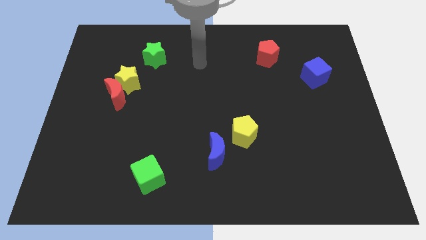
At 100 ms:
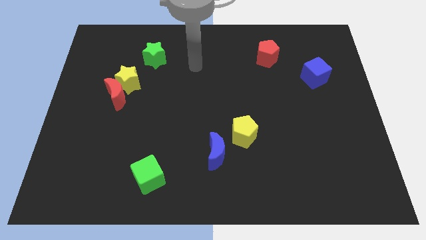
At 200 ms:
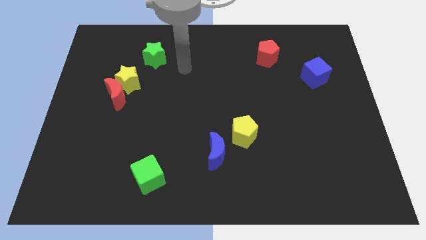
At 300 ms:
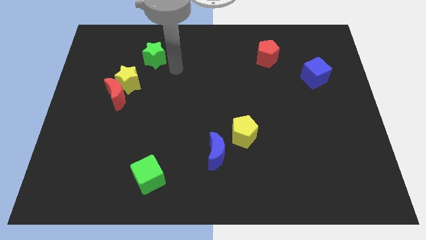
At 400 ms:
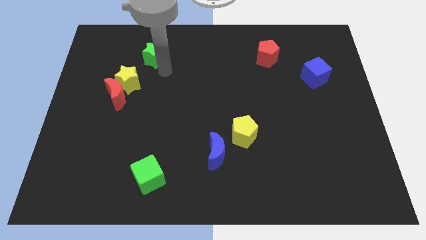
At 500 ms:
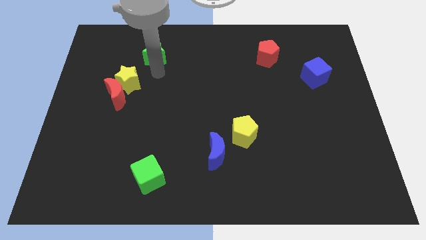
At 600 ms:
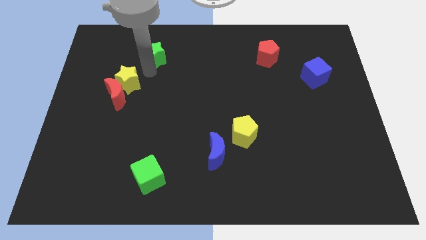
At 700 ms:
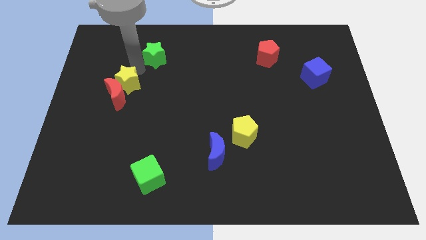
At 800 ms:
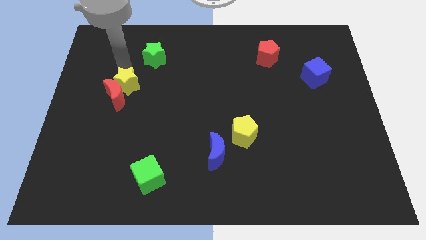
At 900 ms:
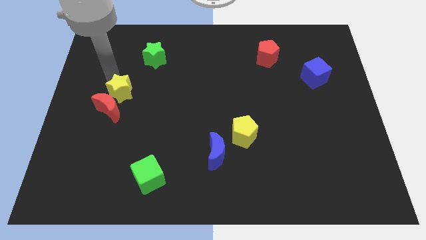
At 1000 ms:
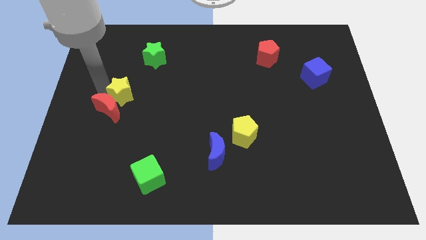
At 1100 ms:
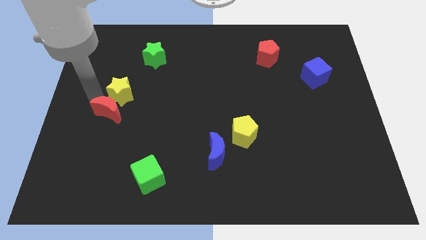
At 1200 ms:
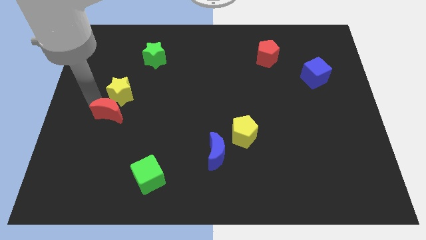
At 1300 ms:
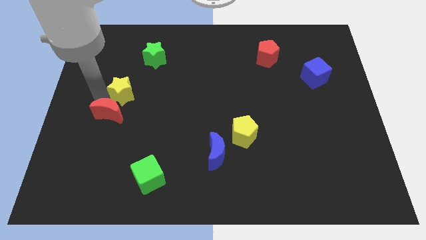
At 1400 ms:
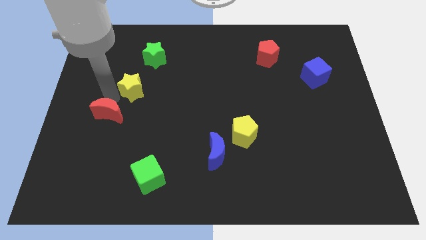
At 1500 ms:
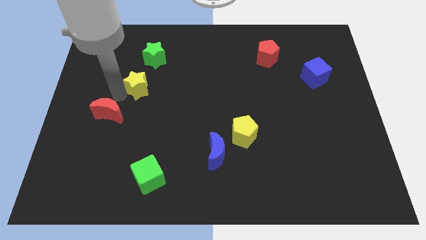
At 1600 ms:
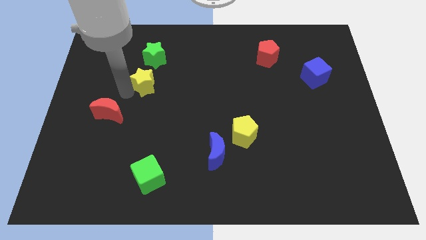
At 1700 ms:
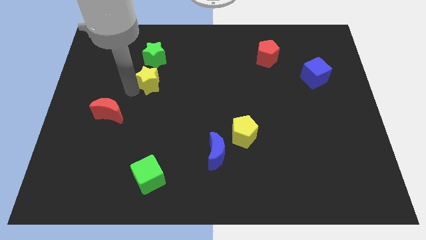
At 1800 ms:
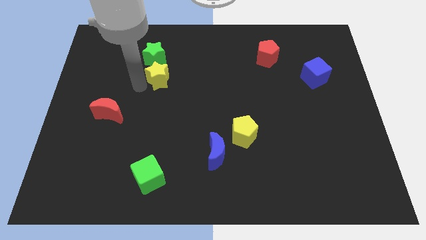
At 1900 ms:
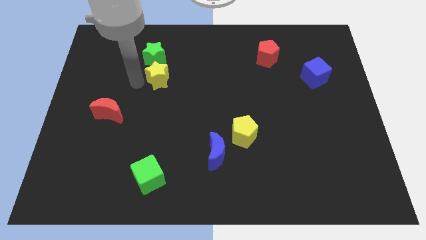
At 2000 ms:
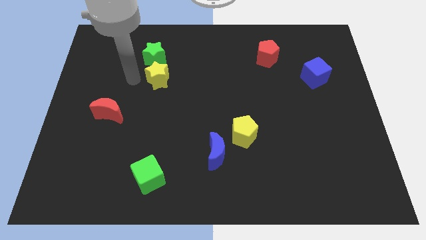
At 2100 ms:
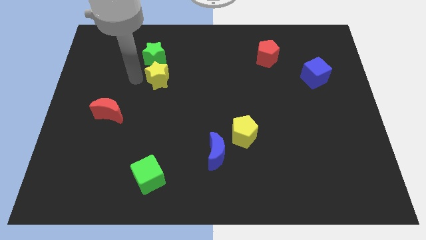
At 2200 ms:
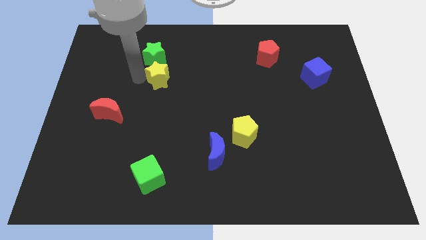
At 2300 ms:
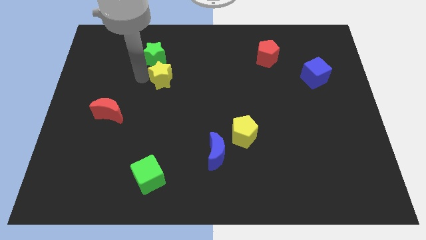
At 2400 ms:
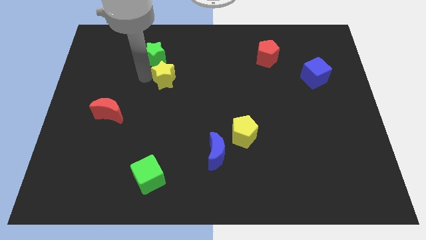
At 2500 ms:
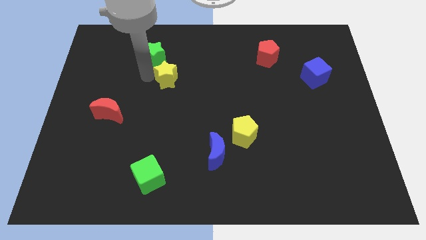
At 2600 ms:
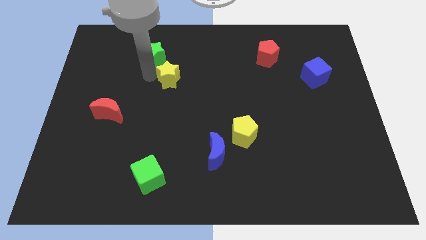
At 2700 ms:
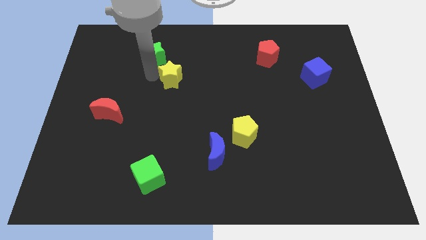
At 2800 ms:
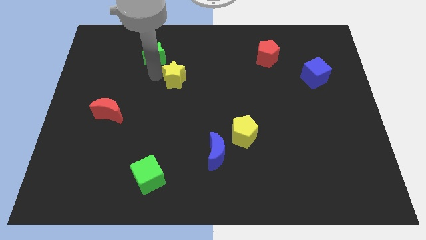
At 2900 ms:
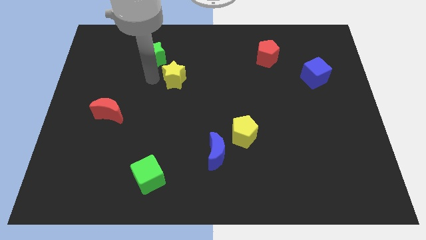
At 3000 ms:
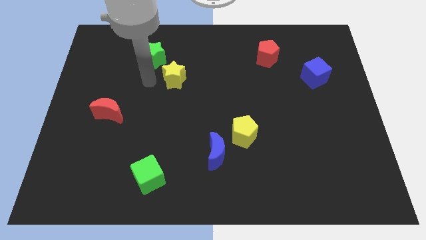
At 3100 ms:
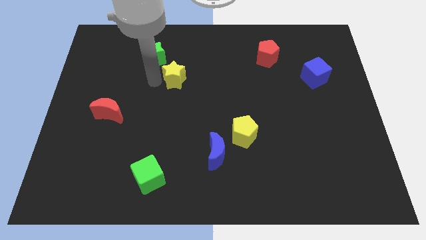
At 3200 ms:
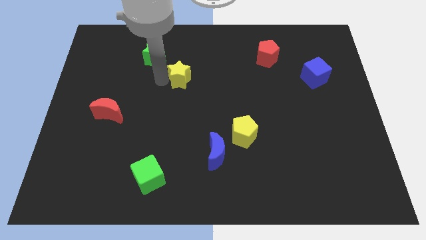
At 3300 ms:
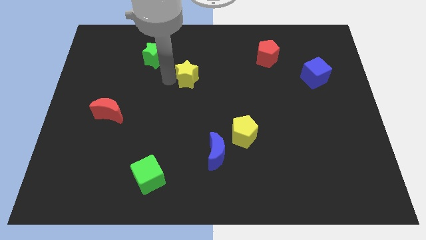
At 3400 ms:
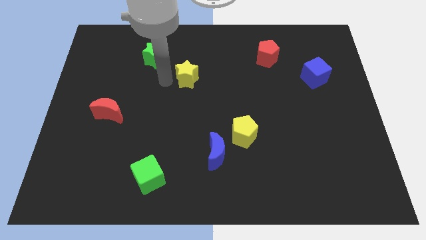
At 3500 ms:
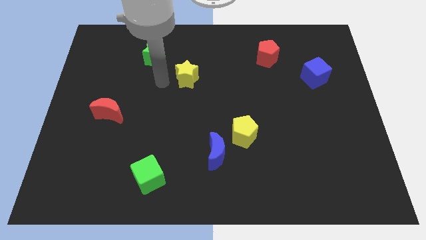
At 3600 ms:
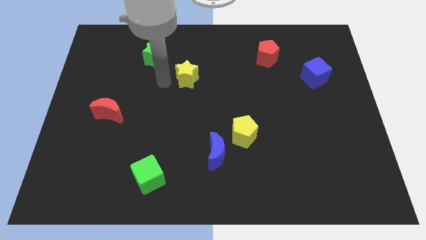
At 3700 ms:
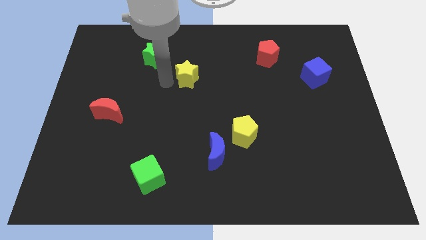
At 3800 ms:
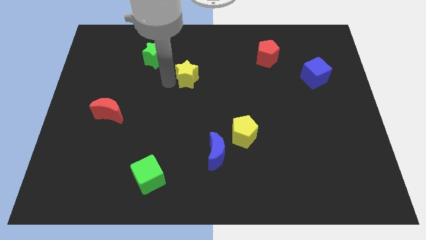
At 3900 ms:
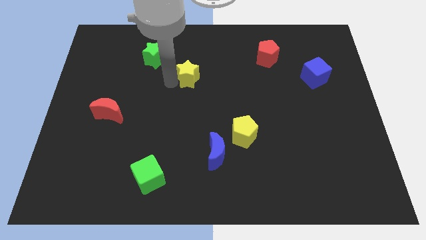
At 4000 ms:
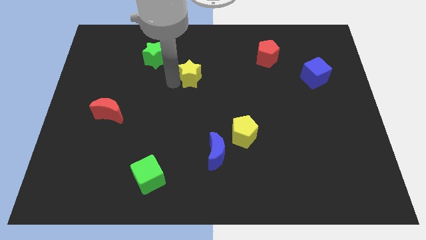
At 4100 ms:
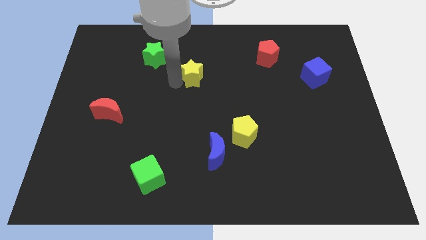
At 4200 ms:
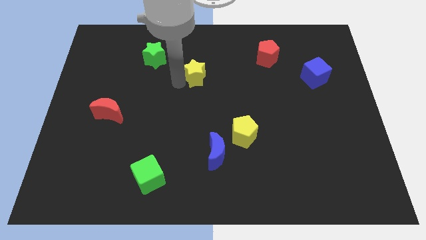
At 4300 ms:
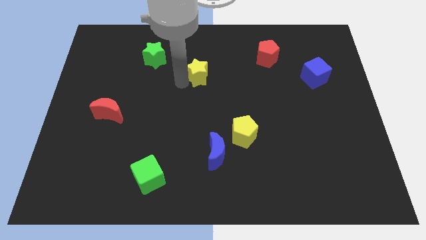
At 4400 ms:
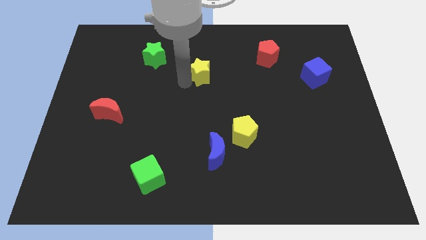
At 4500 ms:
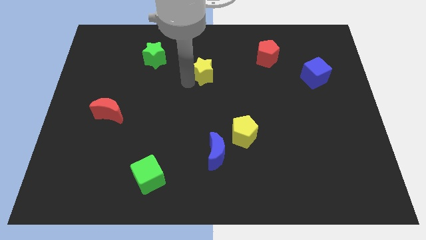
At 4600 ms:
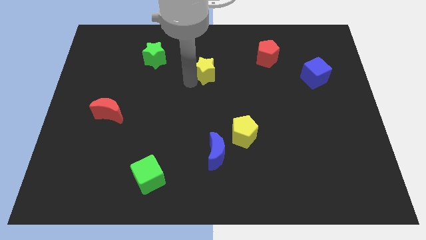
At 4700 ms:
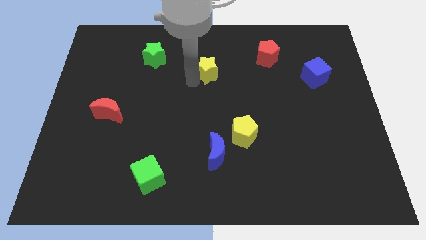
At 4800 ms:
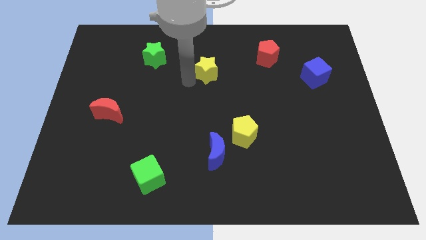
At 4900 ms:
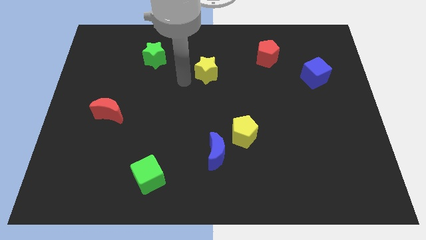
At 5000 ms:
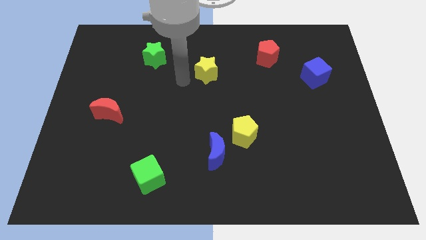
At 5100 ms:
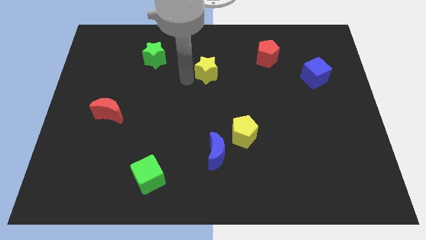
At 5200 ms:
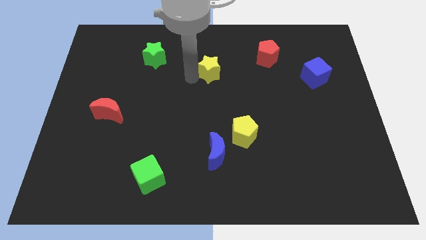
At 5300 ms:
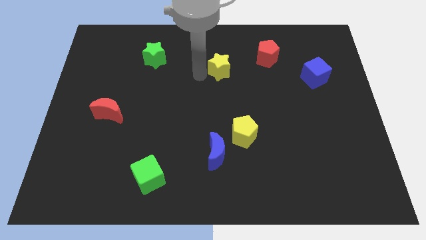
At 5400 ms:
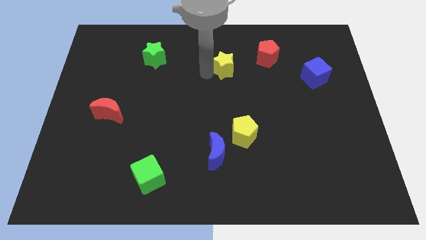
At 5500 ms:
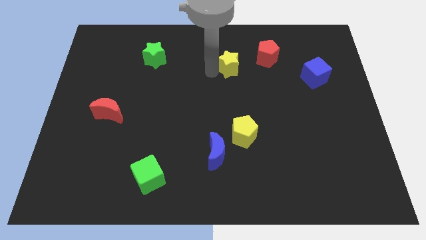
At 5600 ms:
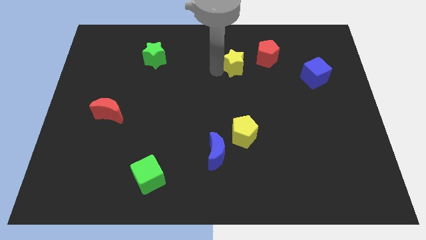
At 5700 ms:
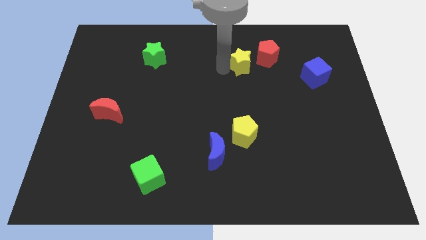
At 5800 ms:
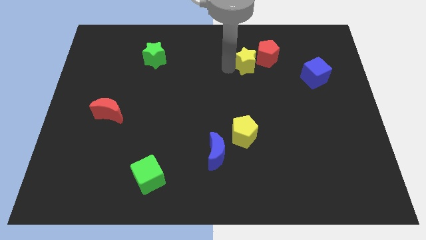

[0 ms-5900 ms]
slide the yellow star close to the red pentagon

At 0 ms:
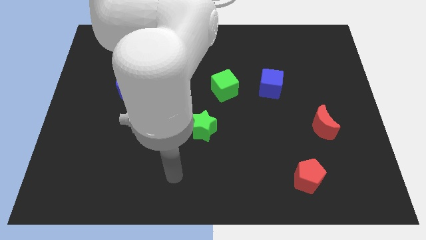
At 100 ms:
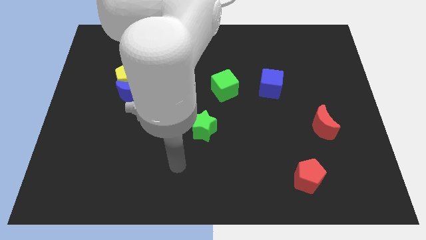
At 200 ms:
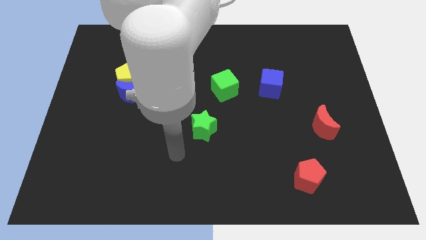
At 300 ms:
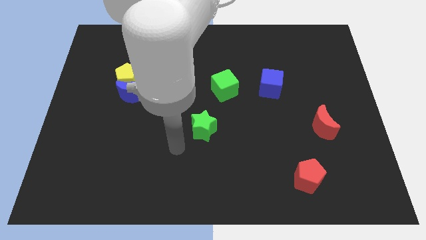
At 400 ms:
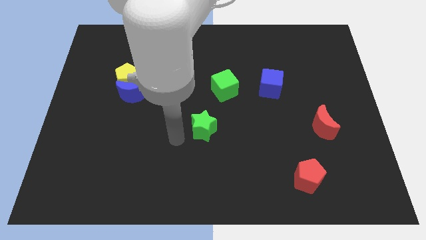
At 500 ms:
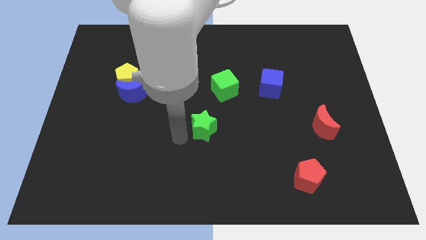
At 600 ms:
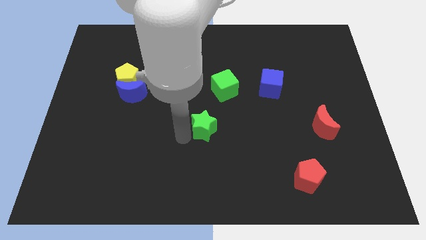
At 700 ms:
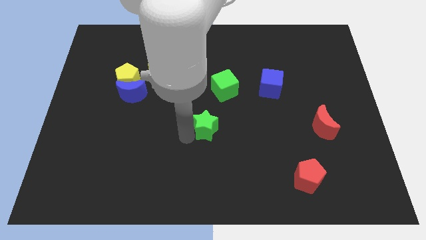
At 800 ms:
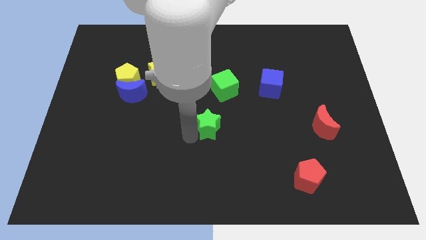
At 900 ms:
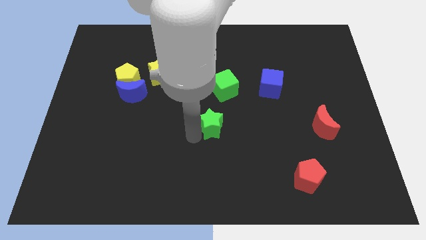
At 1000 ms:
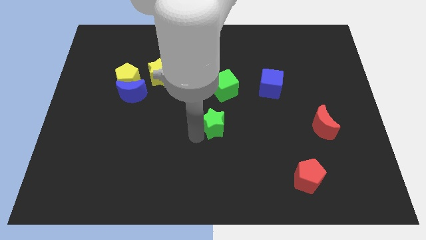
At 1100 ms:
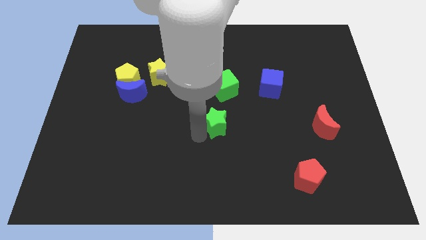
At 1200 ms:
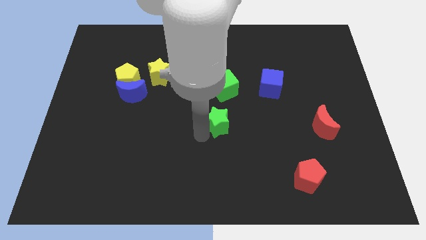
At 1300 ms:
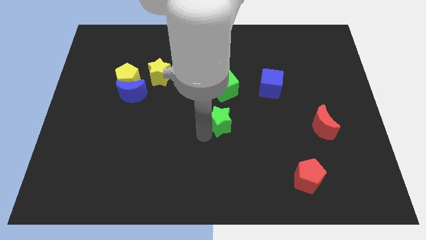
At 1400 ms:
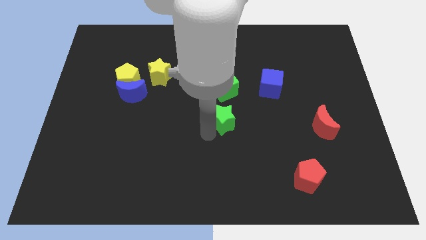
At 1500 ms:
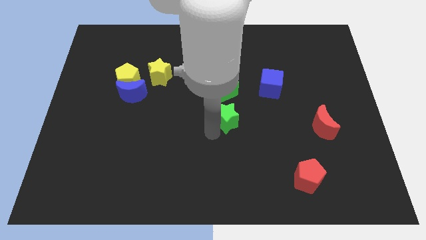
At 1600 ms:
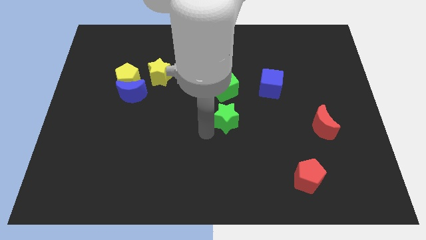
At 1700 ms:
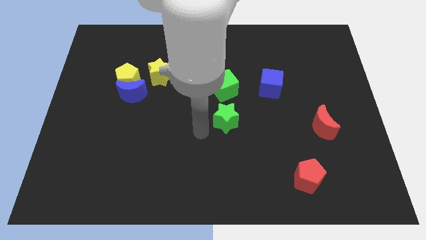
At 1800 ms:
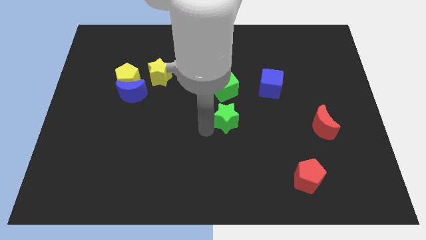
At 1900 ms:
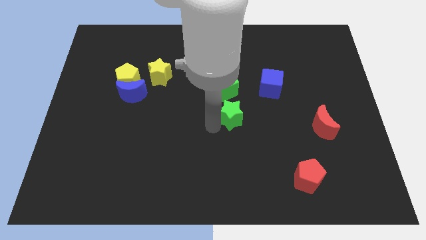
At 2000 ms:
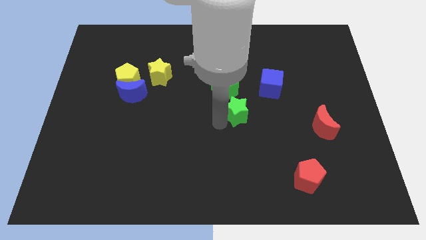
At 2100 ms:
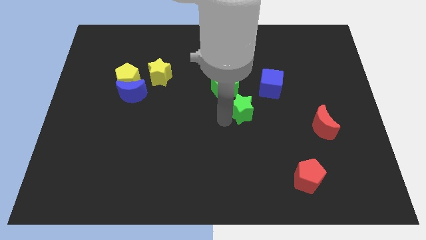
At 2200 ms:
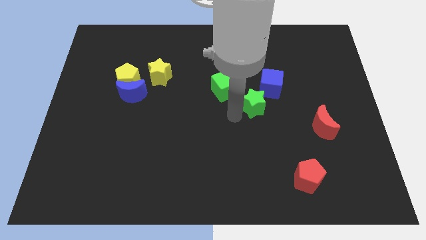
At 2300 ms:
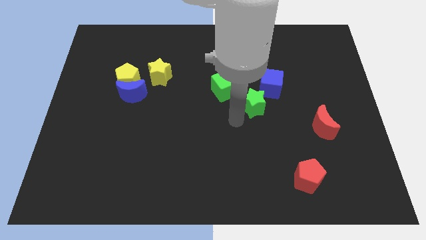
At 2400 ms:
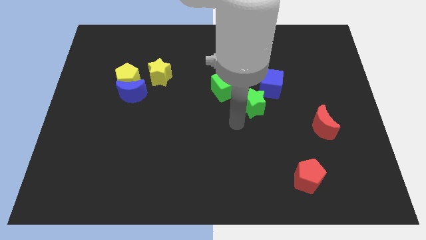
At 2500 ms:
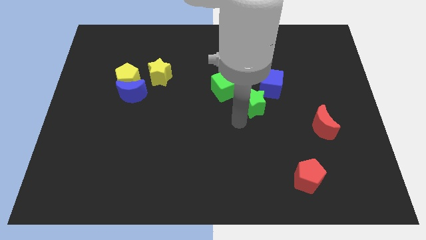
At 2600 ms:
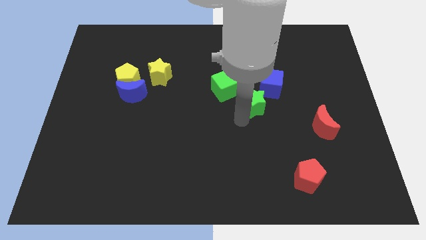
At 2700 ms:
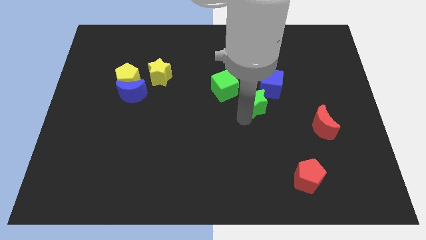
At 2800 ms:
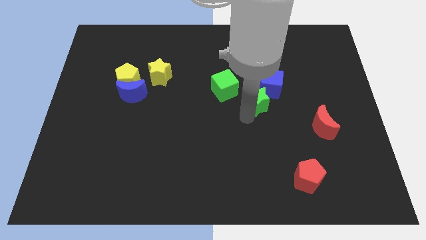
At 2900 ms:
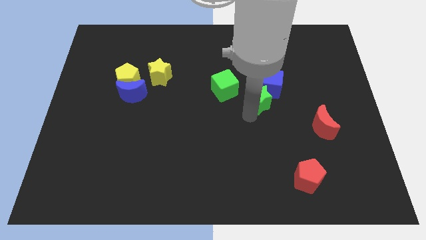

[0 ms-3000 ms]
move the green star next to the blue cube
